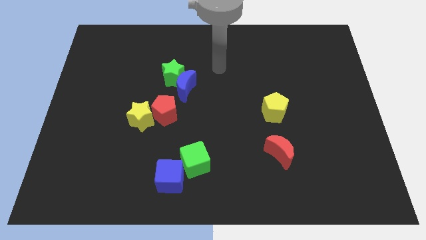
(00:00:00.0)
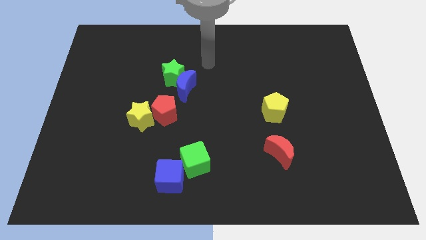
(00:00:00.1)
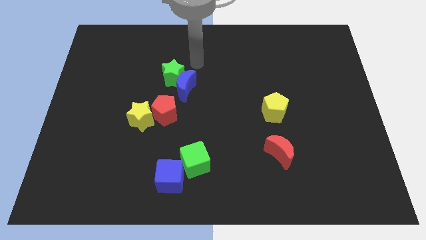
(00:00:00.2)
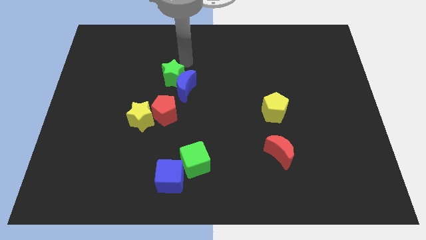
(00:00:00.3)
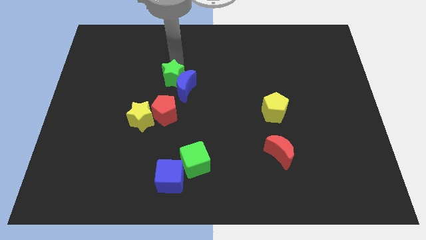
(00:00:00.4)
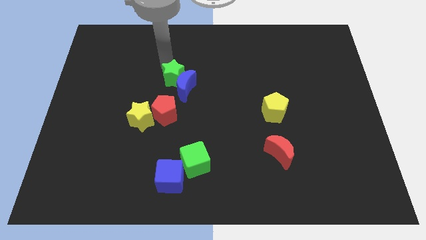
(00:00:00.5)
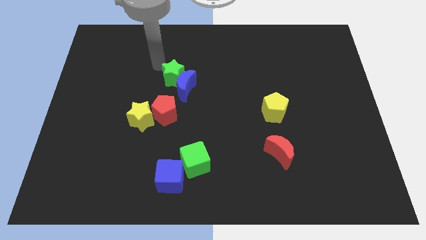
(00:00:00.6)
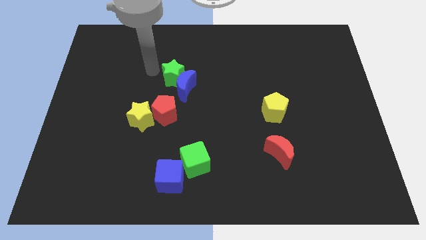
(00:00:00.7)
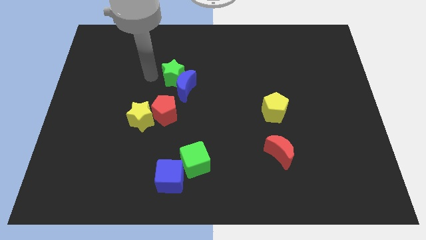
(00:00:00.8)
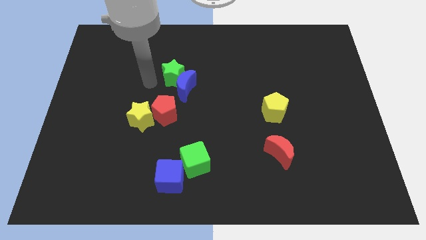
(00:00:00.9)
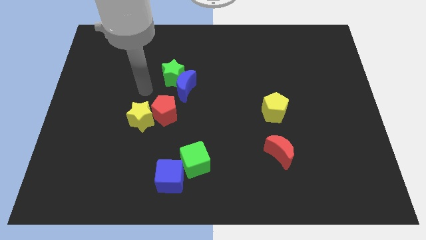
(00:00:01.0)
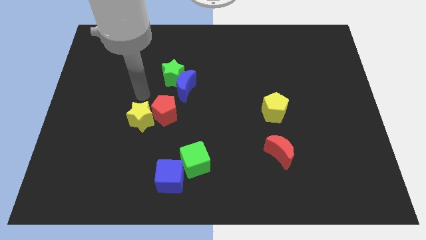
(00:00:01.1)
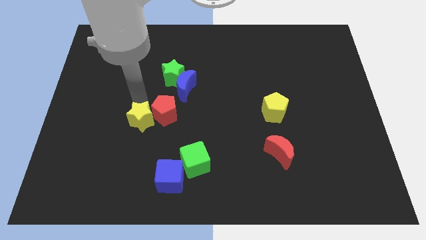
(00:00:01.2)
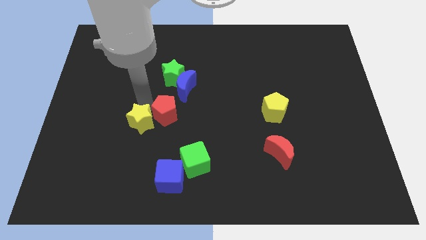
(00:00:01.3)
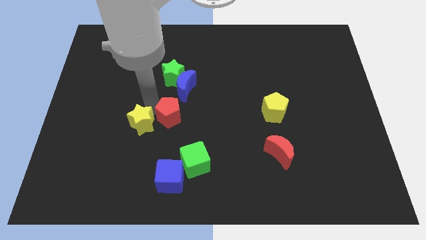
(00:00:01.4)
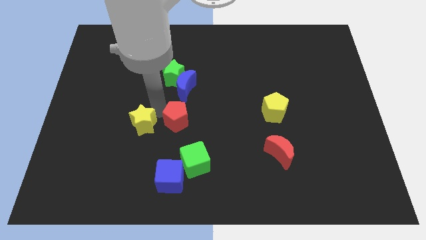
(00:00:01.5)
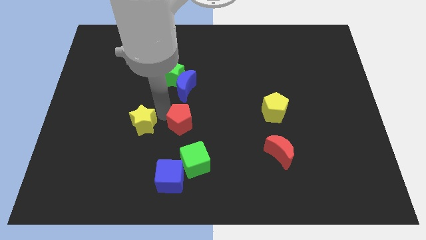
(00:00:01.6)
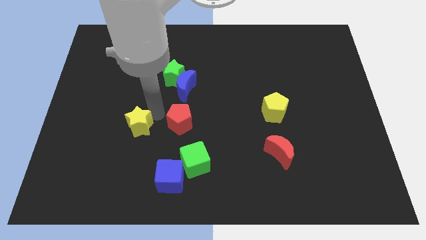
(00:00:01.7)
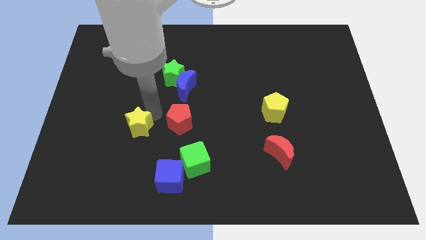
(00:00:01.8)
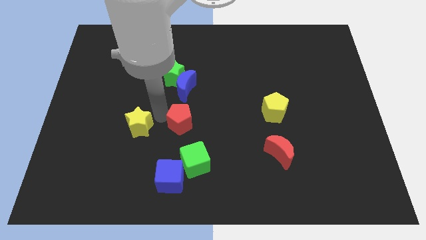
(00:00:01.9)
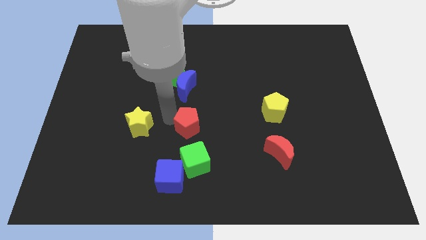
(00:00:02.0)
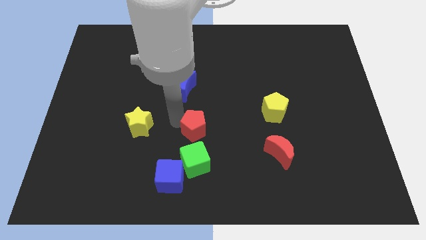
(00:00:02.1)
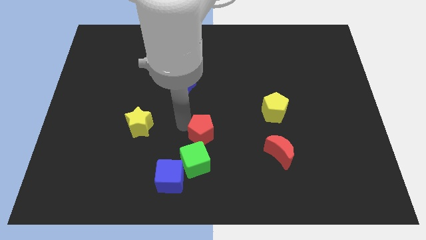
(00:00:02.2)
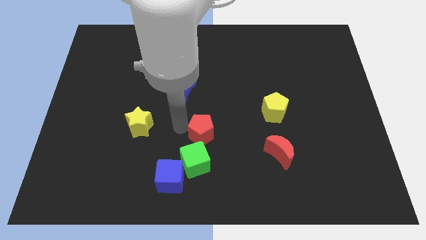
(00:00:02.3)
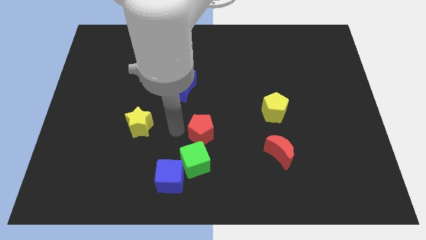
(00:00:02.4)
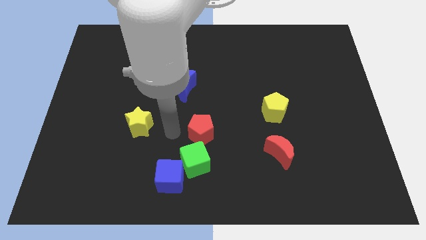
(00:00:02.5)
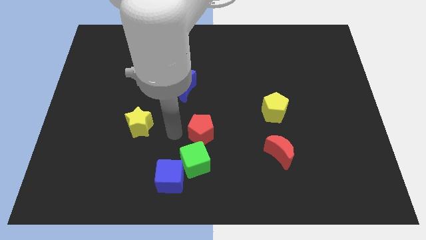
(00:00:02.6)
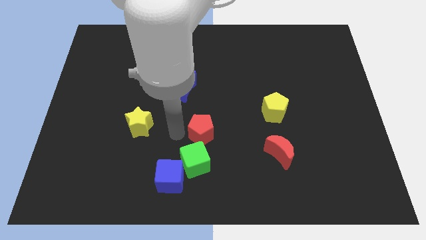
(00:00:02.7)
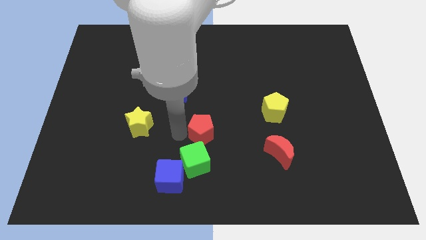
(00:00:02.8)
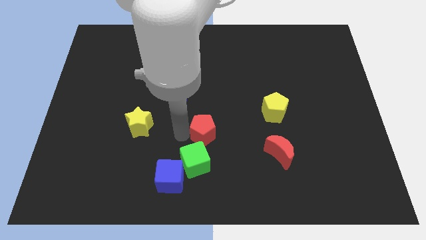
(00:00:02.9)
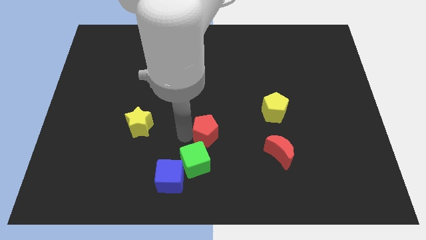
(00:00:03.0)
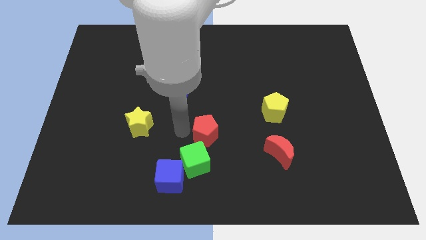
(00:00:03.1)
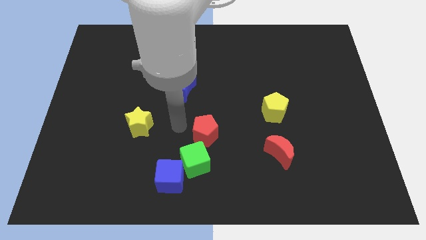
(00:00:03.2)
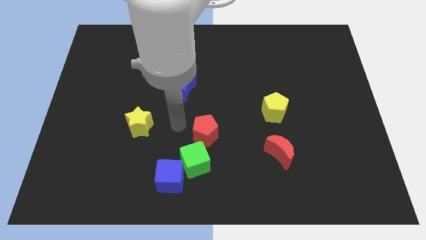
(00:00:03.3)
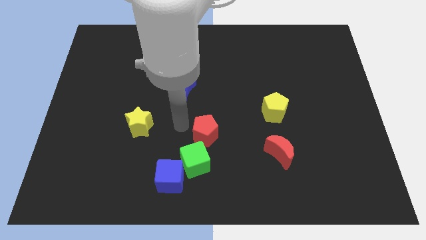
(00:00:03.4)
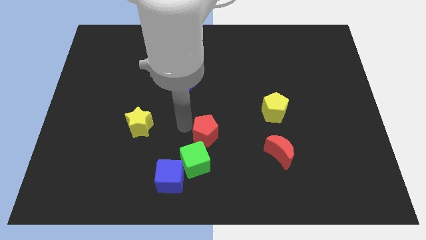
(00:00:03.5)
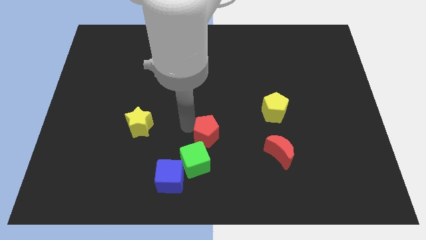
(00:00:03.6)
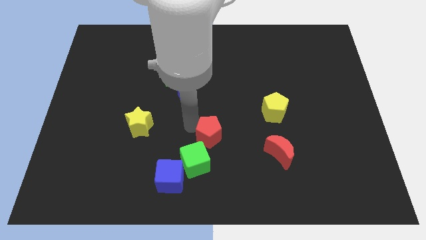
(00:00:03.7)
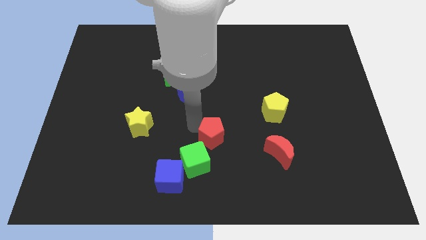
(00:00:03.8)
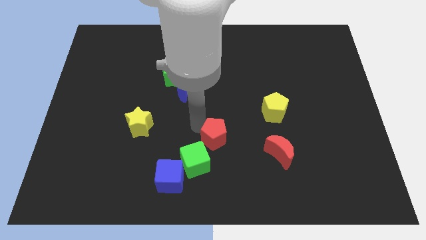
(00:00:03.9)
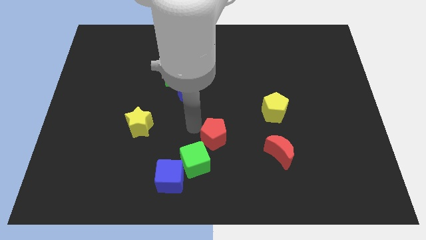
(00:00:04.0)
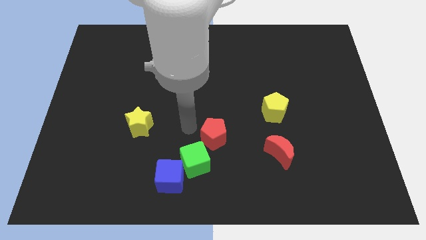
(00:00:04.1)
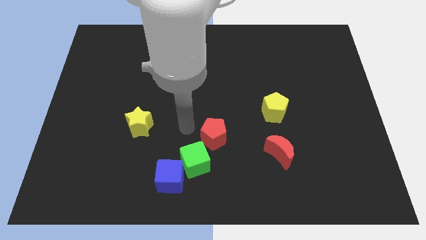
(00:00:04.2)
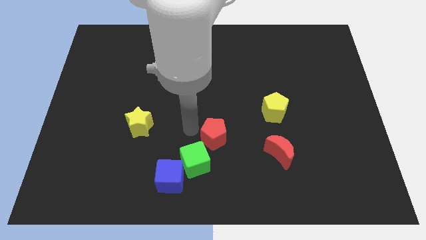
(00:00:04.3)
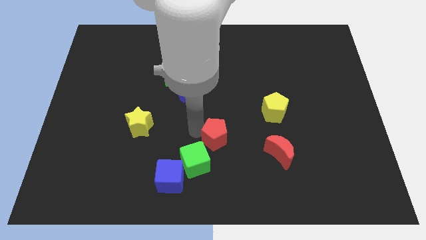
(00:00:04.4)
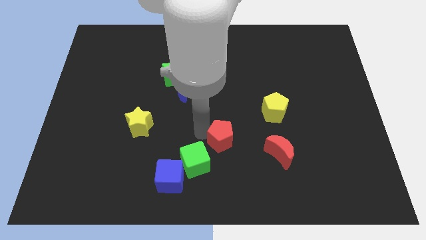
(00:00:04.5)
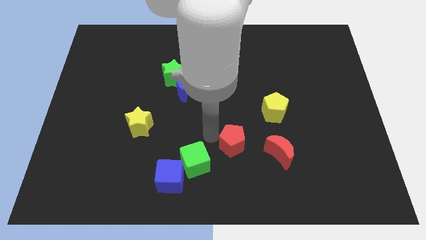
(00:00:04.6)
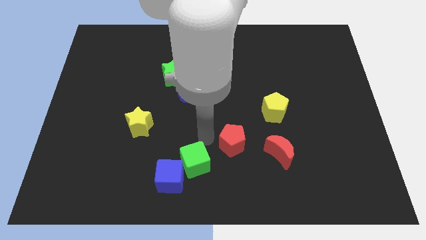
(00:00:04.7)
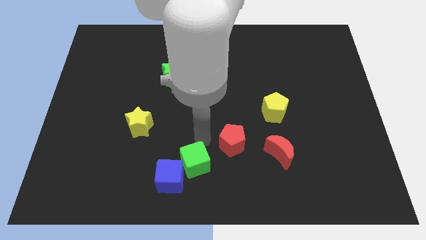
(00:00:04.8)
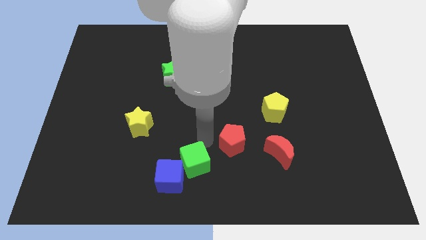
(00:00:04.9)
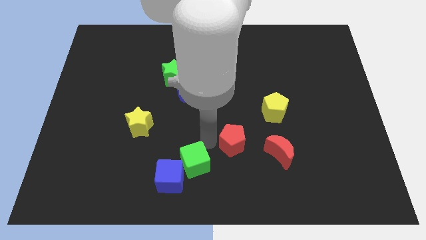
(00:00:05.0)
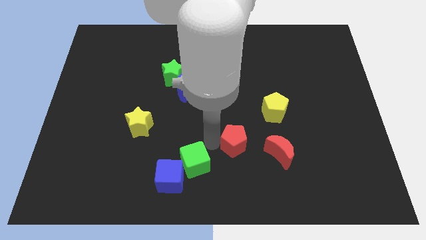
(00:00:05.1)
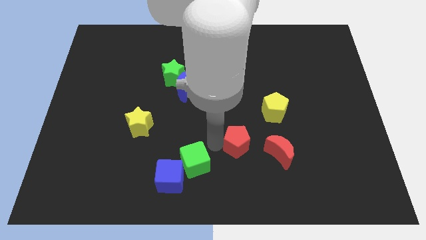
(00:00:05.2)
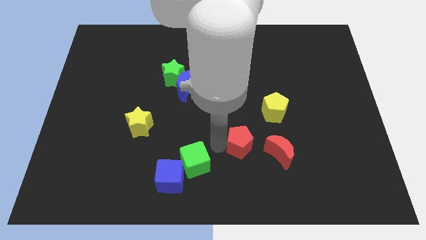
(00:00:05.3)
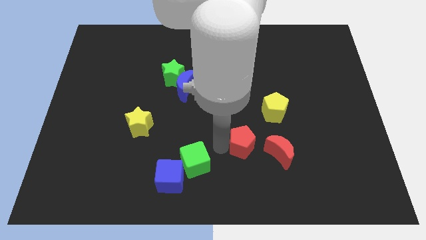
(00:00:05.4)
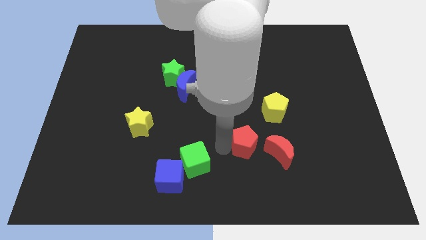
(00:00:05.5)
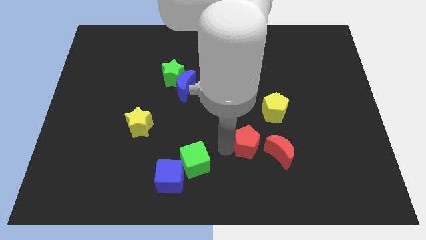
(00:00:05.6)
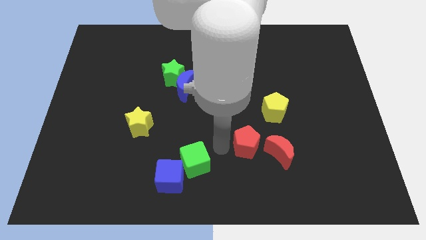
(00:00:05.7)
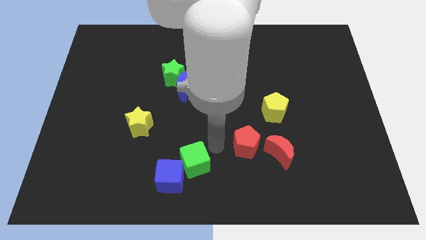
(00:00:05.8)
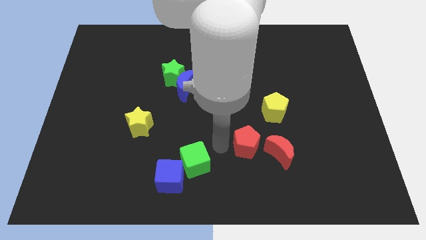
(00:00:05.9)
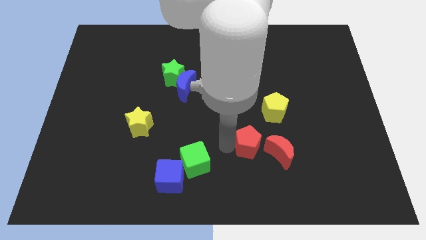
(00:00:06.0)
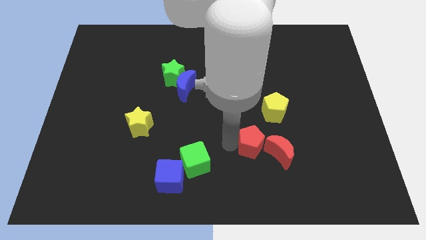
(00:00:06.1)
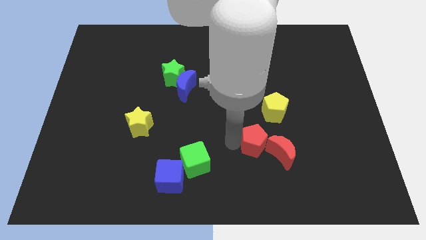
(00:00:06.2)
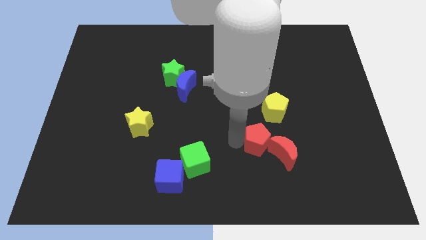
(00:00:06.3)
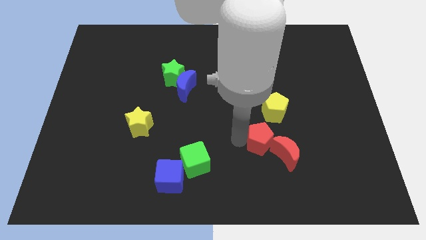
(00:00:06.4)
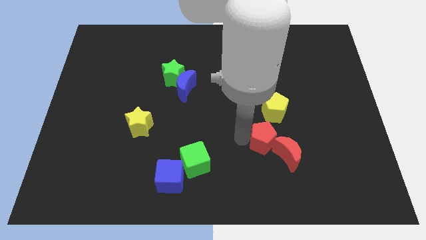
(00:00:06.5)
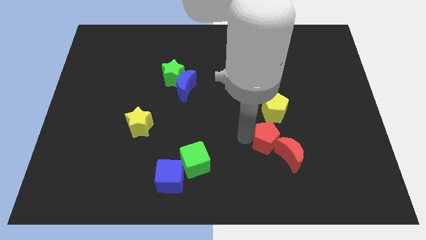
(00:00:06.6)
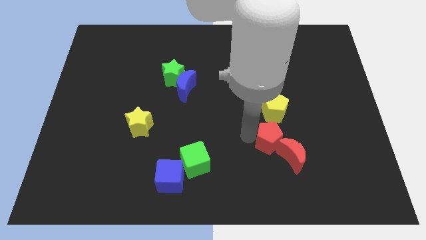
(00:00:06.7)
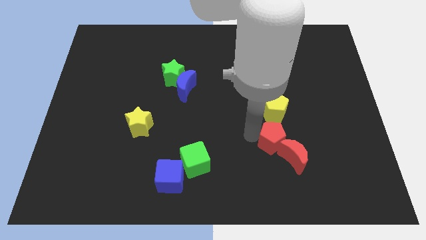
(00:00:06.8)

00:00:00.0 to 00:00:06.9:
slide the red pentagon close to the red moon

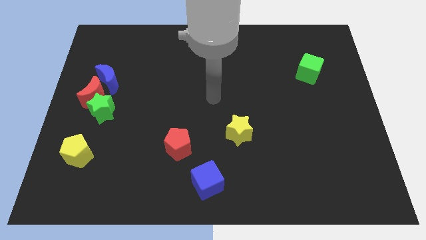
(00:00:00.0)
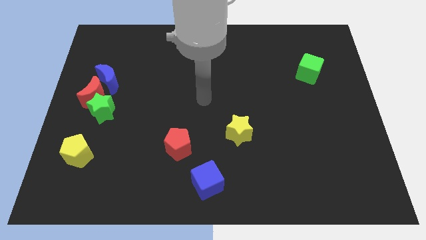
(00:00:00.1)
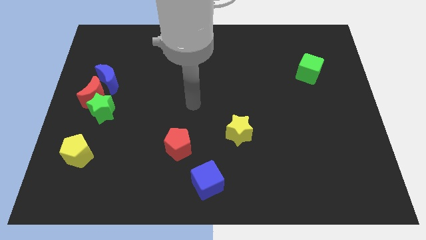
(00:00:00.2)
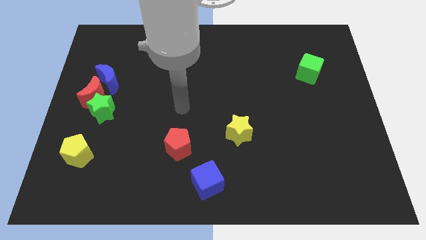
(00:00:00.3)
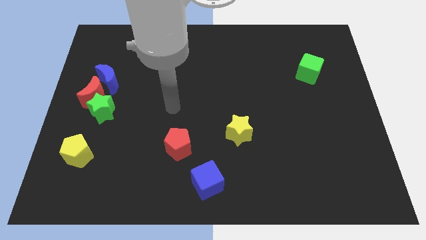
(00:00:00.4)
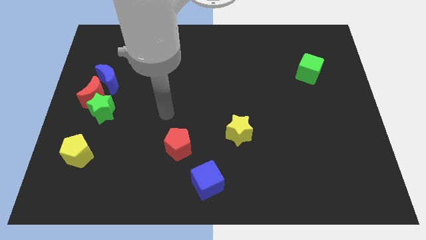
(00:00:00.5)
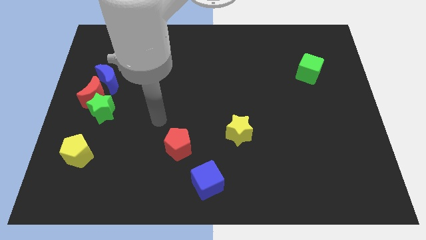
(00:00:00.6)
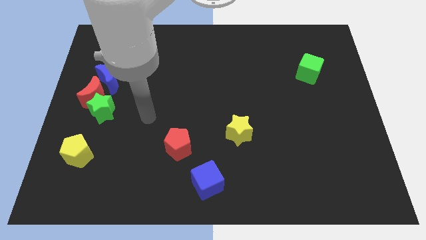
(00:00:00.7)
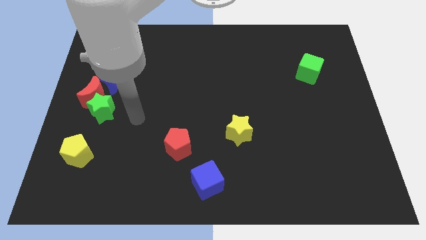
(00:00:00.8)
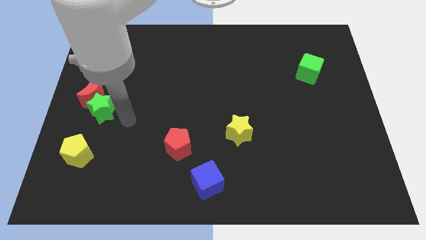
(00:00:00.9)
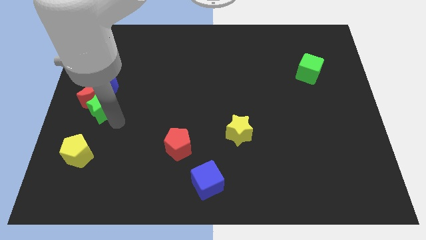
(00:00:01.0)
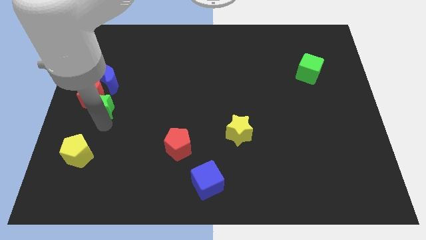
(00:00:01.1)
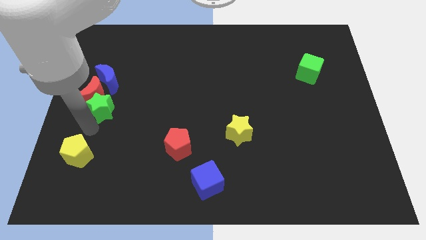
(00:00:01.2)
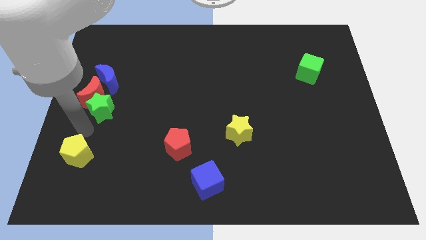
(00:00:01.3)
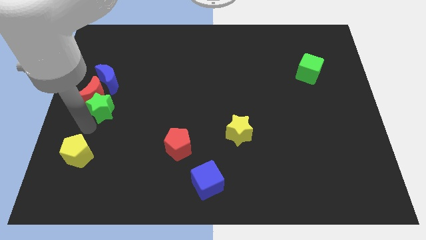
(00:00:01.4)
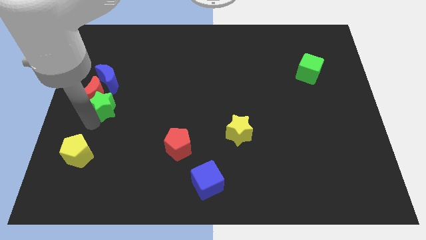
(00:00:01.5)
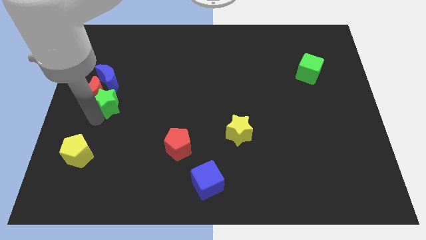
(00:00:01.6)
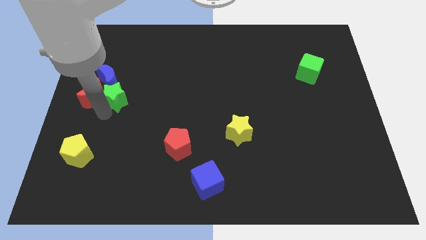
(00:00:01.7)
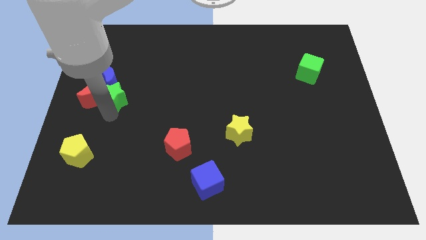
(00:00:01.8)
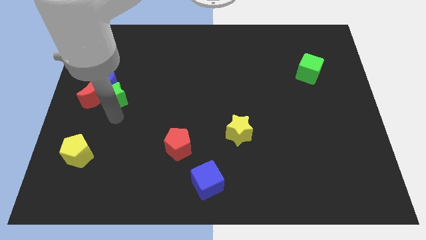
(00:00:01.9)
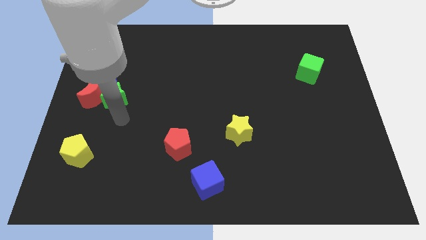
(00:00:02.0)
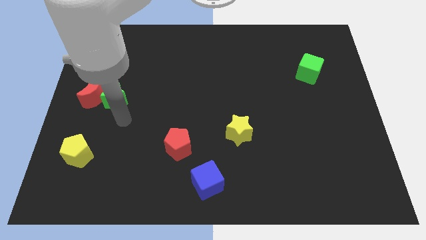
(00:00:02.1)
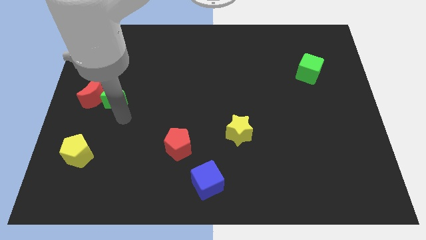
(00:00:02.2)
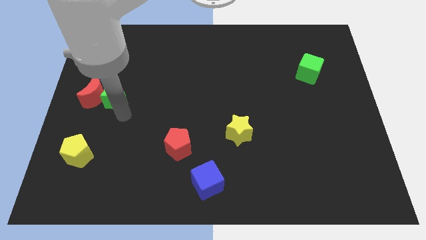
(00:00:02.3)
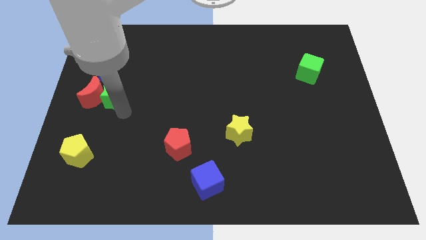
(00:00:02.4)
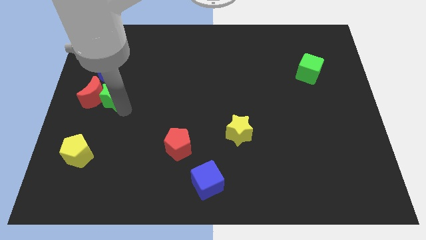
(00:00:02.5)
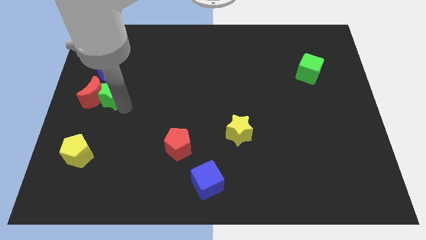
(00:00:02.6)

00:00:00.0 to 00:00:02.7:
move the green star to the blue moon
